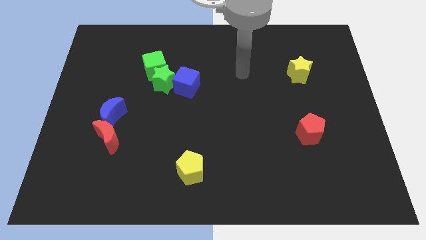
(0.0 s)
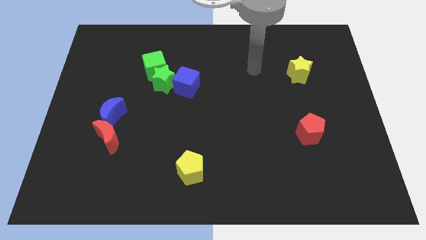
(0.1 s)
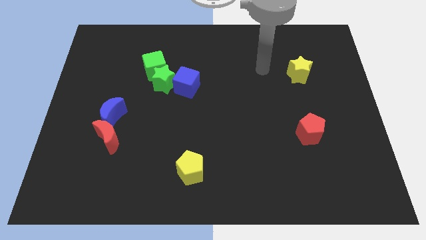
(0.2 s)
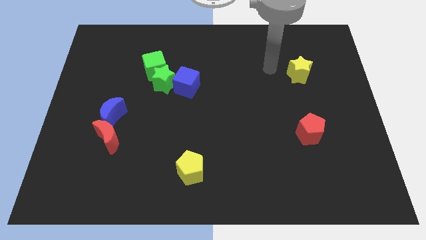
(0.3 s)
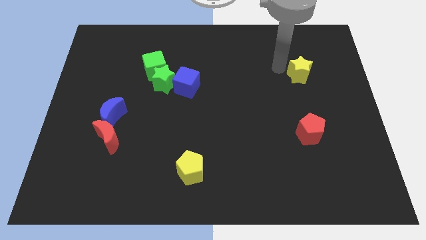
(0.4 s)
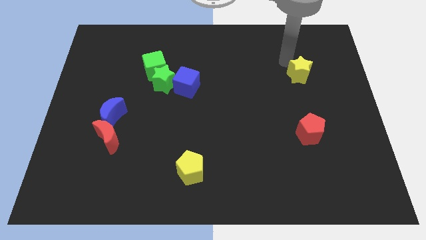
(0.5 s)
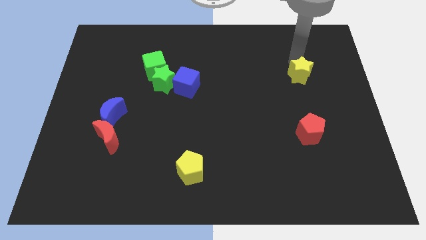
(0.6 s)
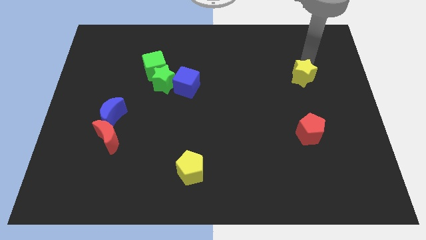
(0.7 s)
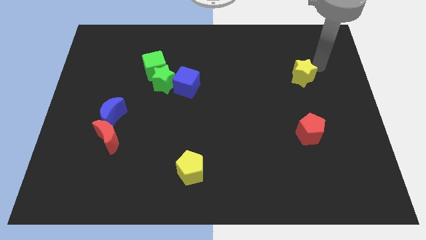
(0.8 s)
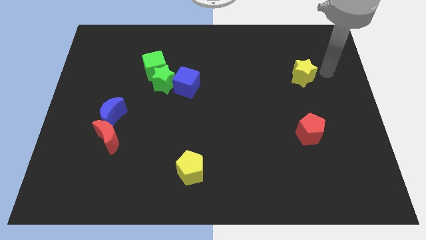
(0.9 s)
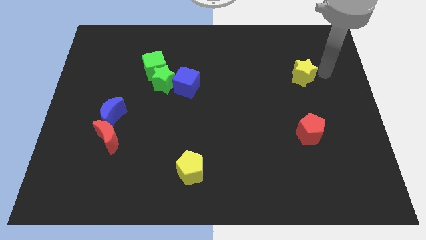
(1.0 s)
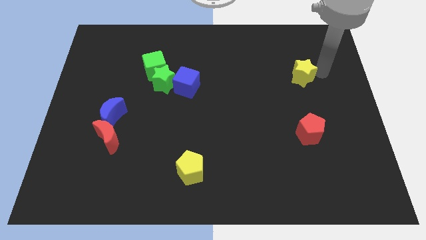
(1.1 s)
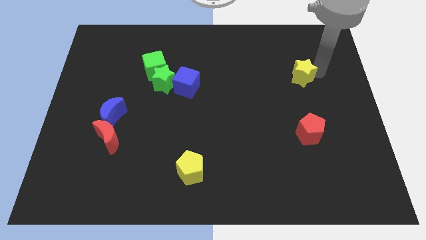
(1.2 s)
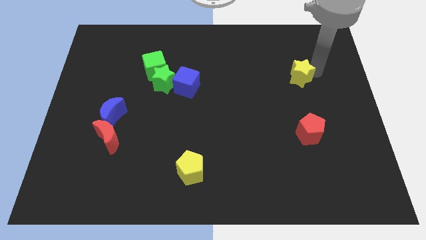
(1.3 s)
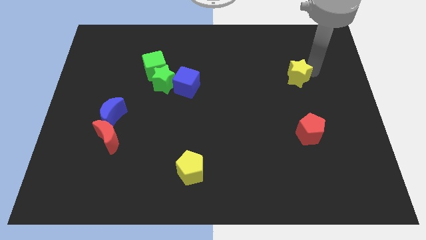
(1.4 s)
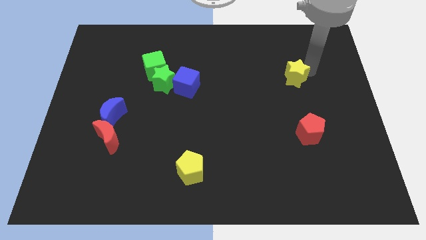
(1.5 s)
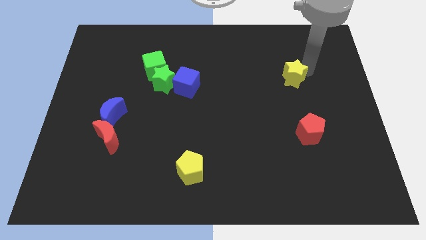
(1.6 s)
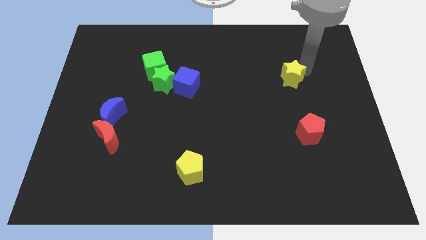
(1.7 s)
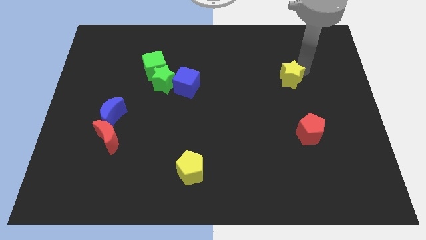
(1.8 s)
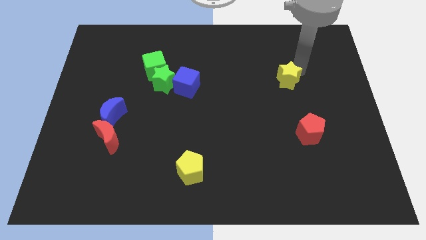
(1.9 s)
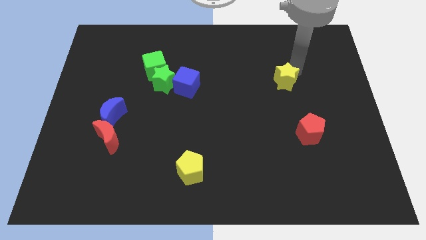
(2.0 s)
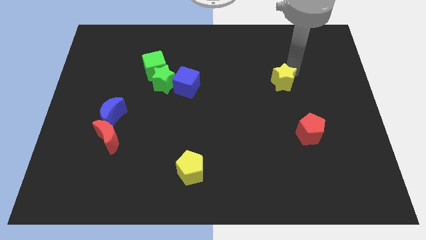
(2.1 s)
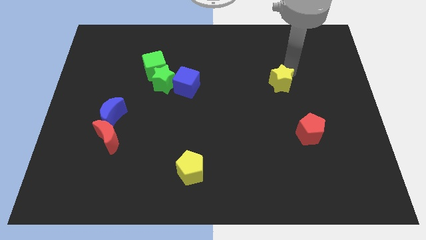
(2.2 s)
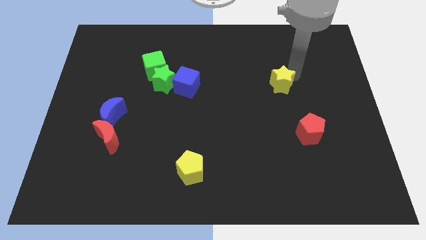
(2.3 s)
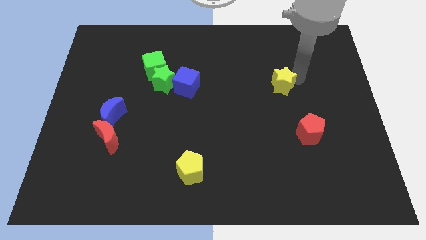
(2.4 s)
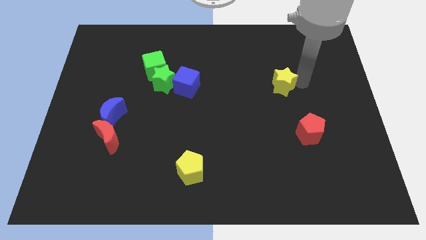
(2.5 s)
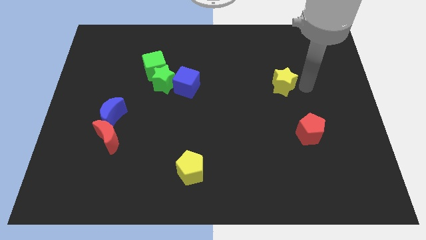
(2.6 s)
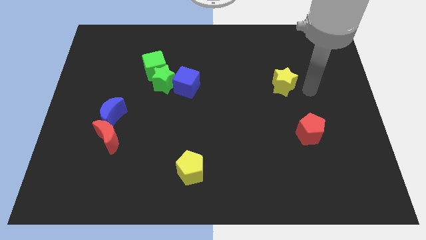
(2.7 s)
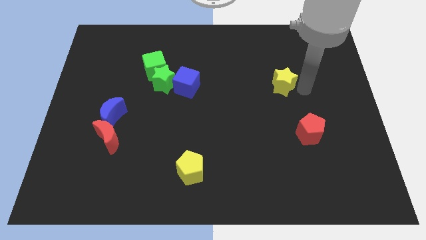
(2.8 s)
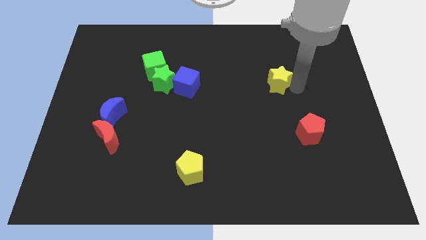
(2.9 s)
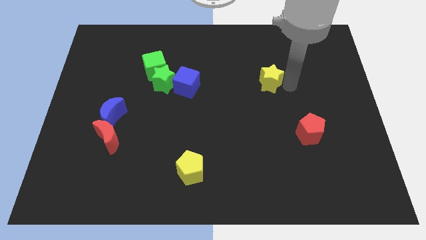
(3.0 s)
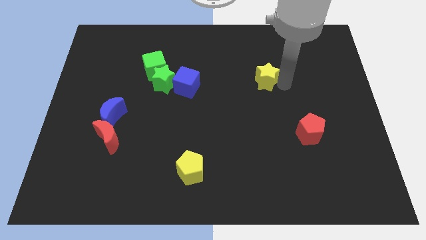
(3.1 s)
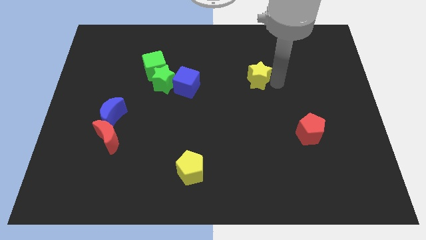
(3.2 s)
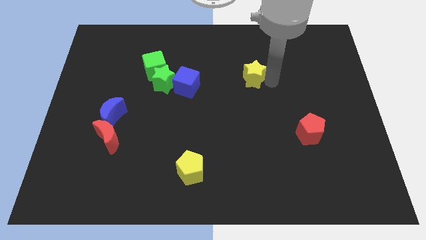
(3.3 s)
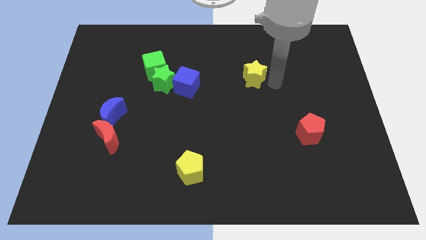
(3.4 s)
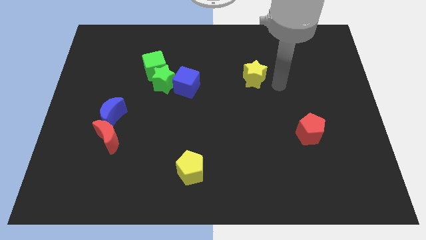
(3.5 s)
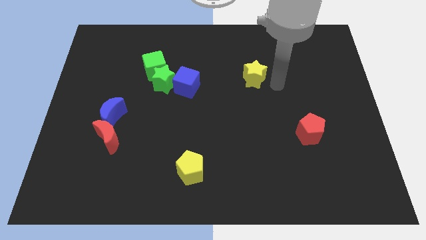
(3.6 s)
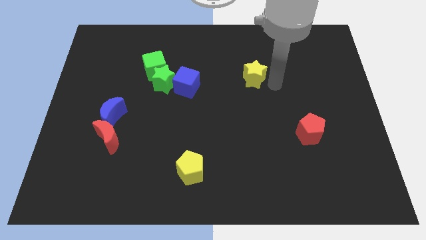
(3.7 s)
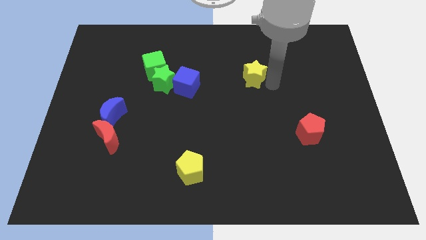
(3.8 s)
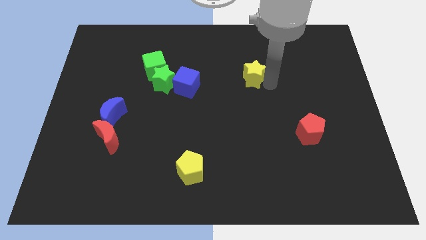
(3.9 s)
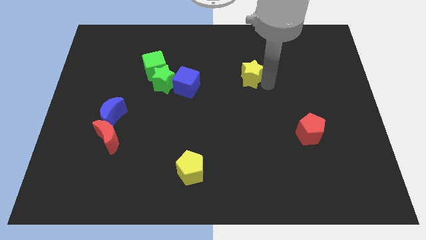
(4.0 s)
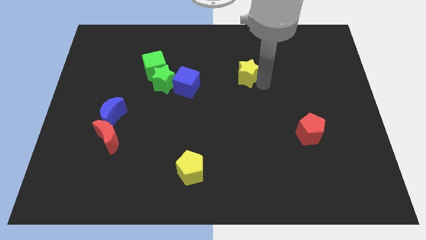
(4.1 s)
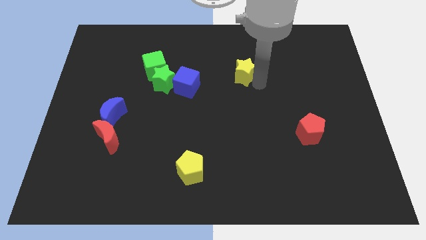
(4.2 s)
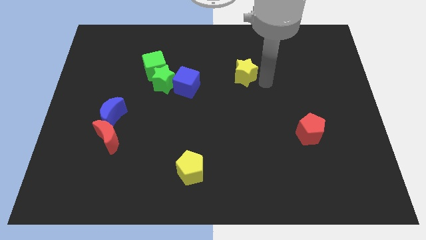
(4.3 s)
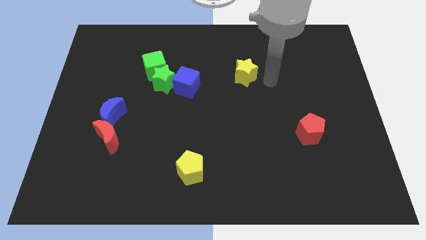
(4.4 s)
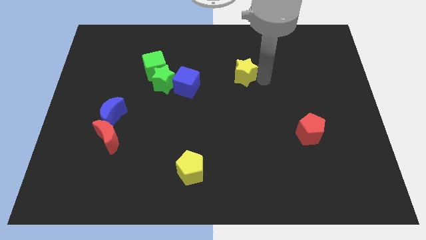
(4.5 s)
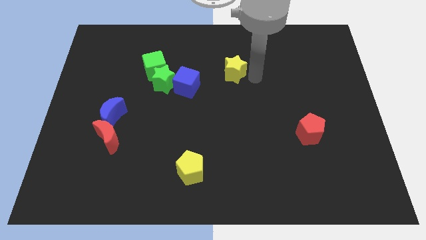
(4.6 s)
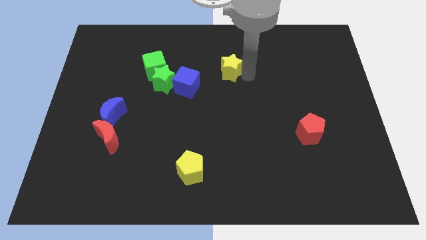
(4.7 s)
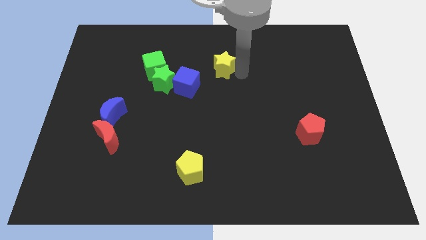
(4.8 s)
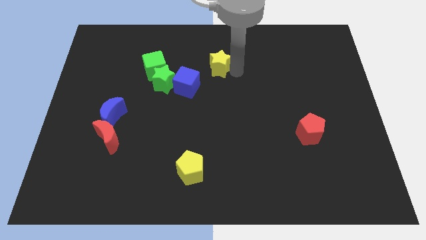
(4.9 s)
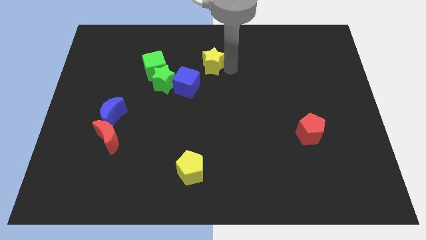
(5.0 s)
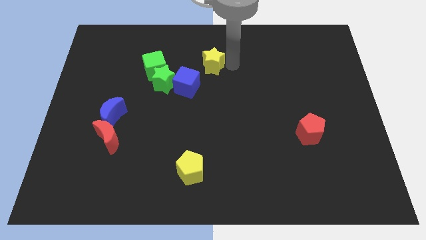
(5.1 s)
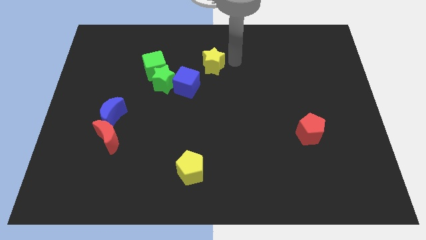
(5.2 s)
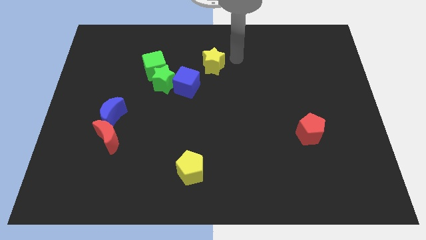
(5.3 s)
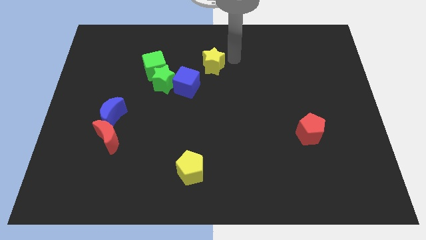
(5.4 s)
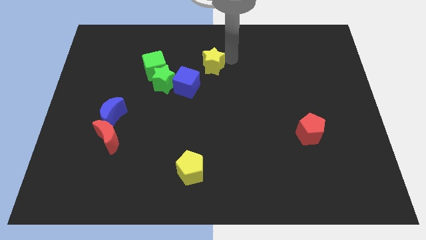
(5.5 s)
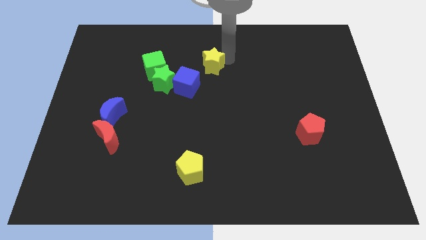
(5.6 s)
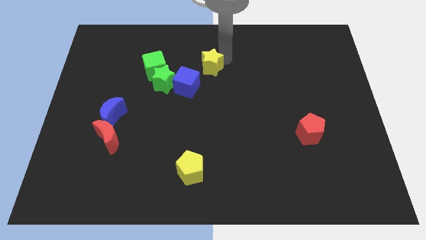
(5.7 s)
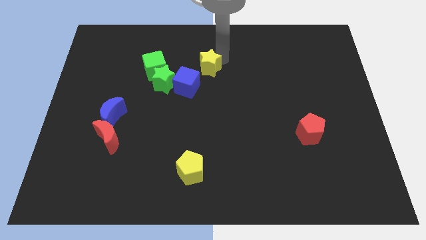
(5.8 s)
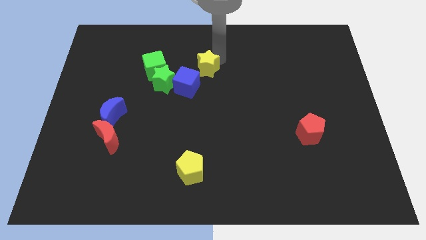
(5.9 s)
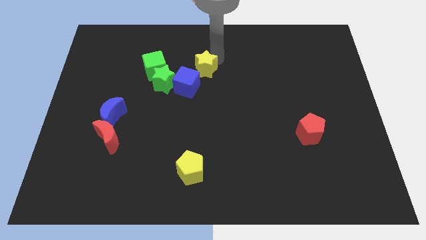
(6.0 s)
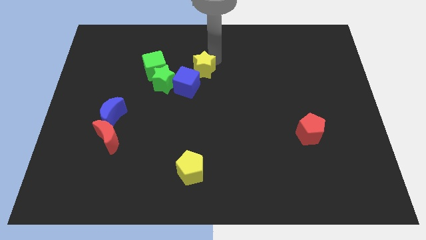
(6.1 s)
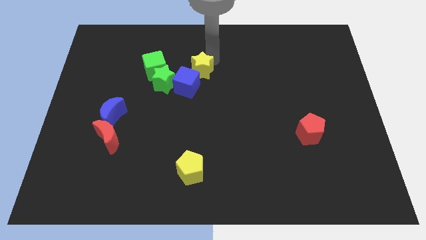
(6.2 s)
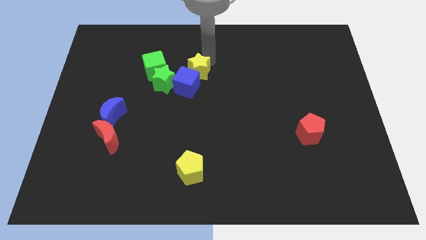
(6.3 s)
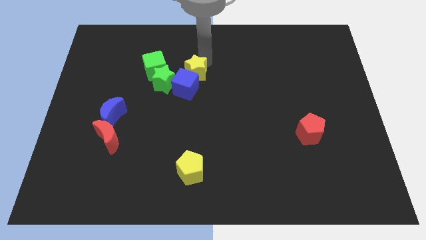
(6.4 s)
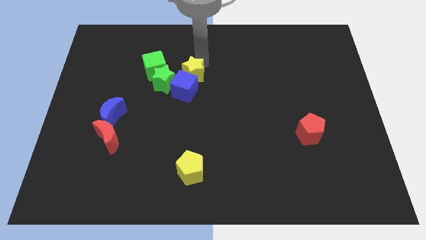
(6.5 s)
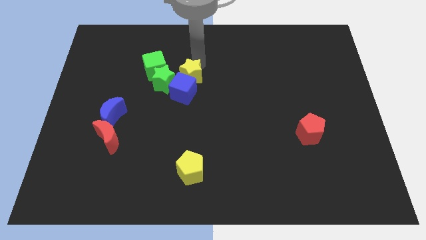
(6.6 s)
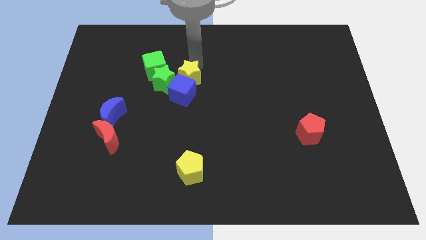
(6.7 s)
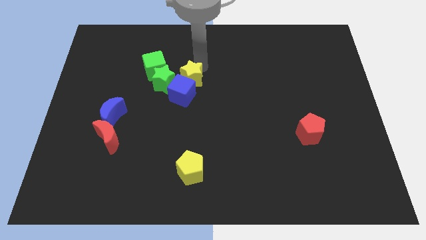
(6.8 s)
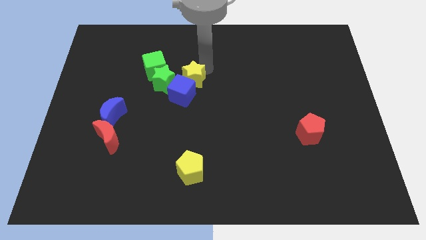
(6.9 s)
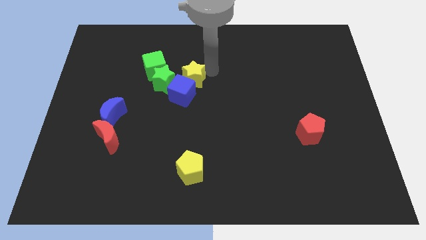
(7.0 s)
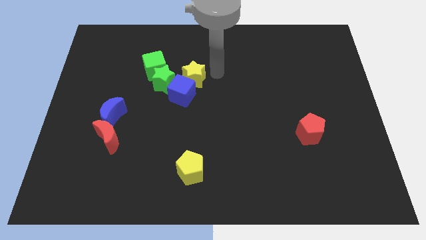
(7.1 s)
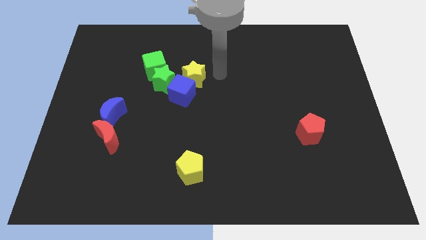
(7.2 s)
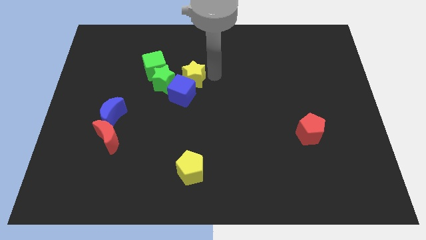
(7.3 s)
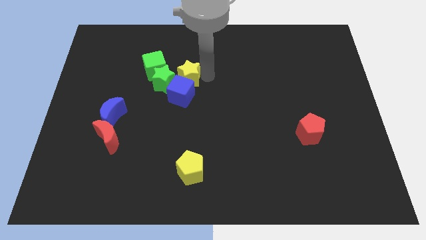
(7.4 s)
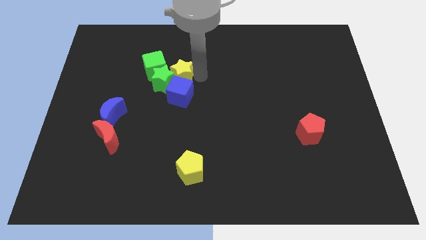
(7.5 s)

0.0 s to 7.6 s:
push the yellow star next to the green star
